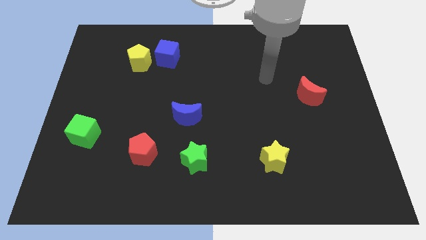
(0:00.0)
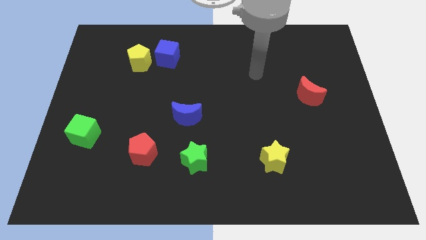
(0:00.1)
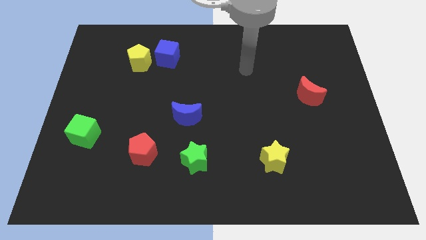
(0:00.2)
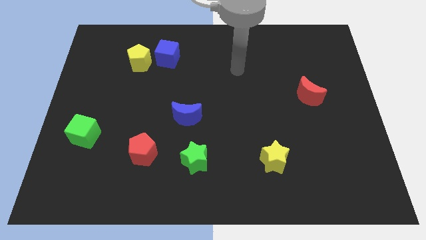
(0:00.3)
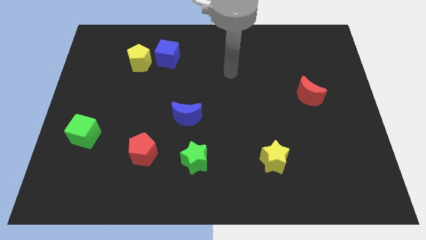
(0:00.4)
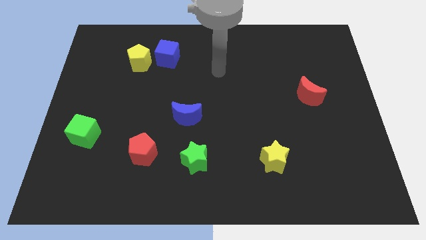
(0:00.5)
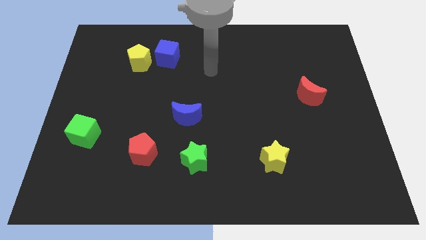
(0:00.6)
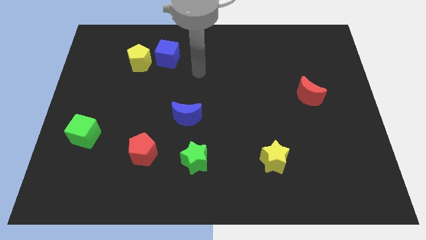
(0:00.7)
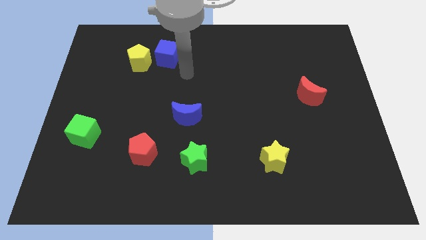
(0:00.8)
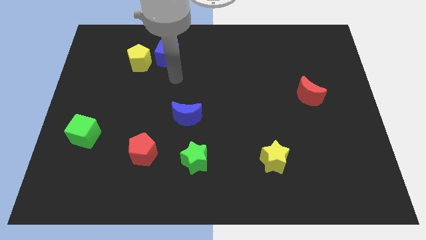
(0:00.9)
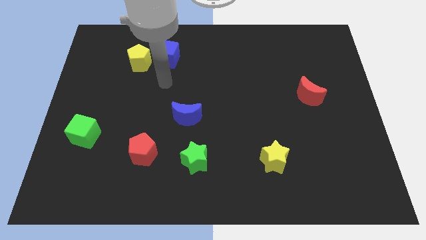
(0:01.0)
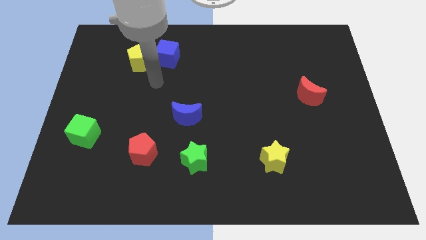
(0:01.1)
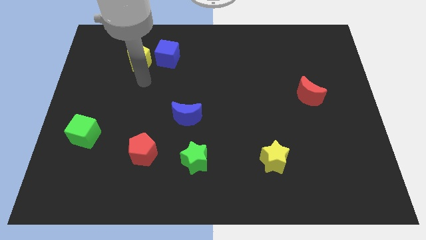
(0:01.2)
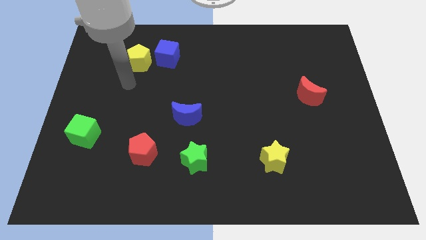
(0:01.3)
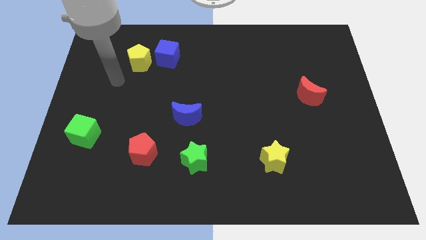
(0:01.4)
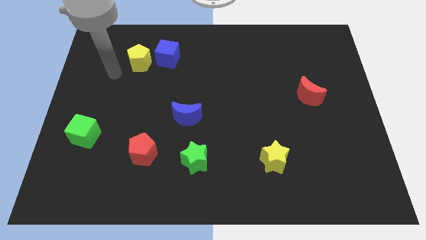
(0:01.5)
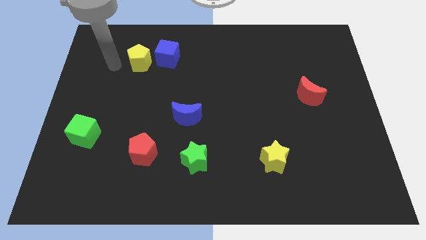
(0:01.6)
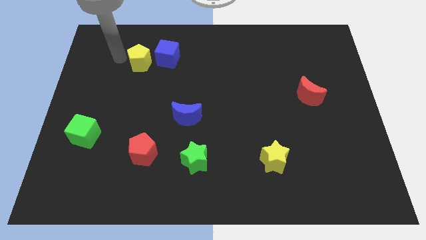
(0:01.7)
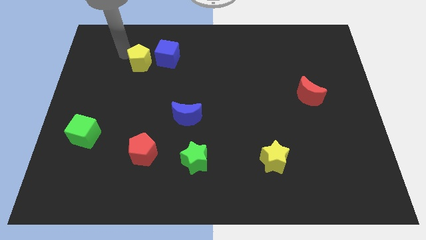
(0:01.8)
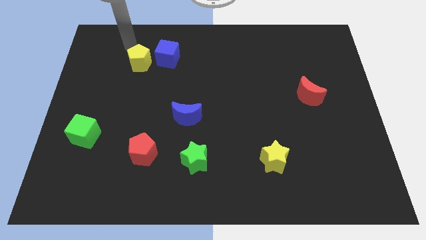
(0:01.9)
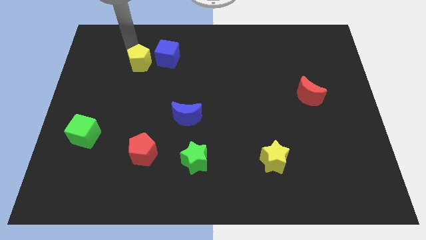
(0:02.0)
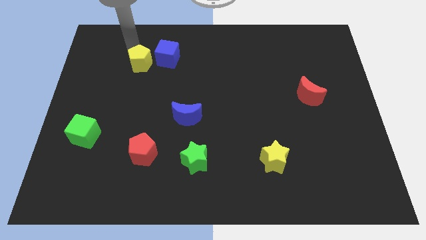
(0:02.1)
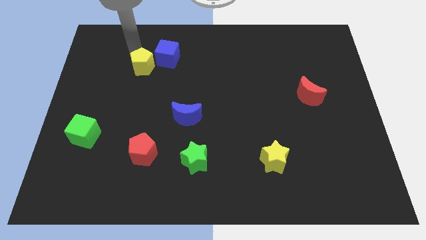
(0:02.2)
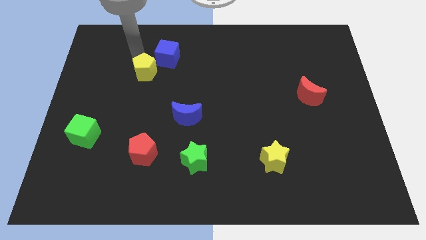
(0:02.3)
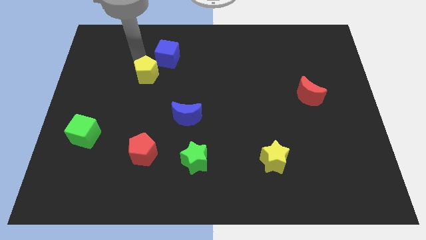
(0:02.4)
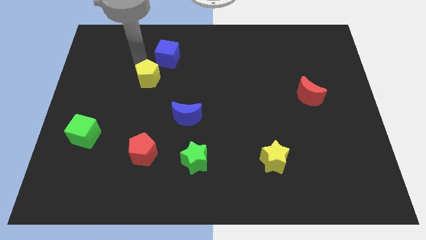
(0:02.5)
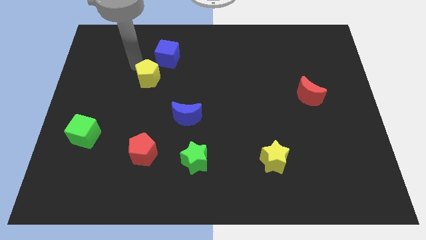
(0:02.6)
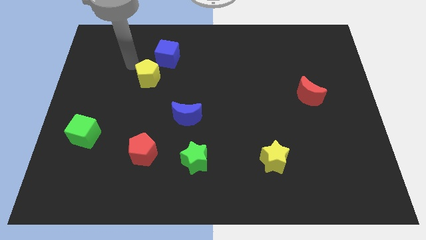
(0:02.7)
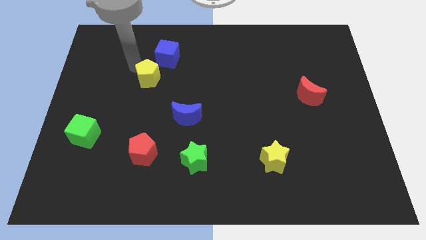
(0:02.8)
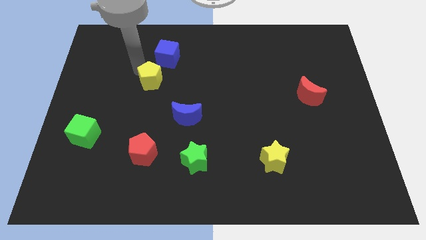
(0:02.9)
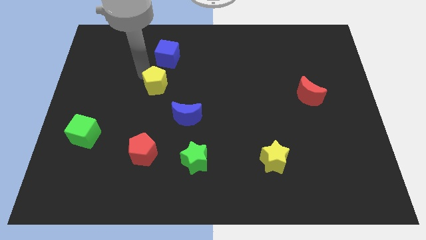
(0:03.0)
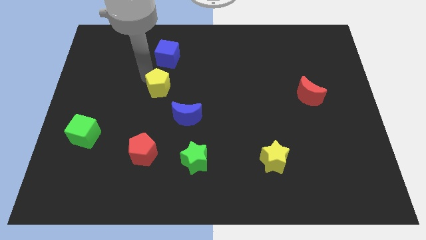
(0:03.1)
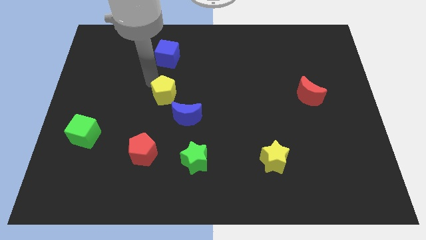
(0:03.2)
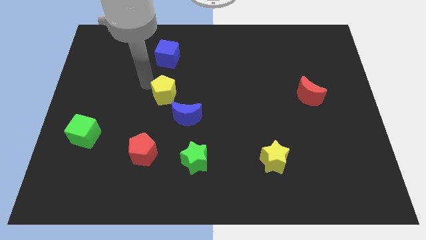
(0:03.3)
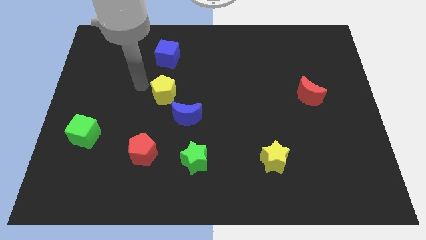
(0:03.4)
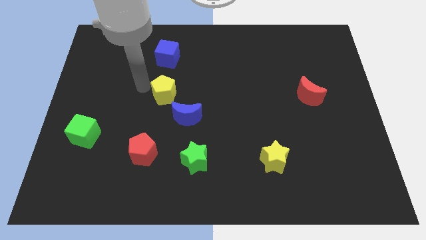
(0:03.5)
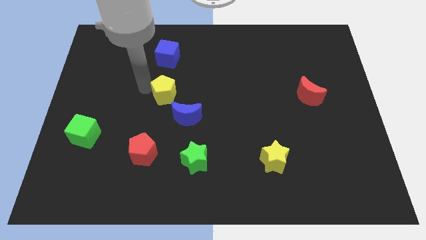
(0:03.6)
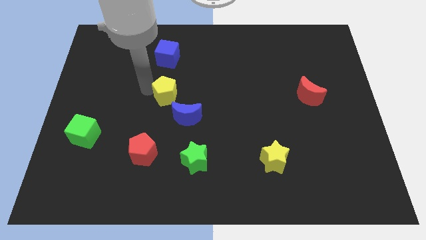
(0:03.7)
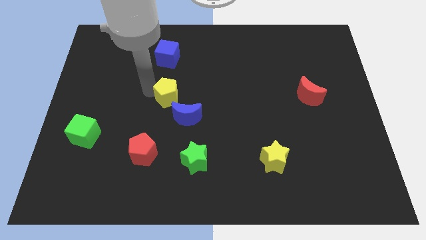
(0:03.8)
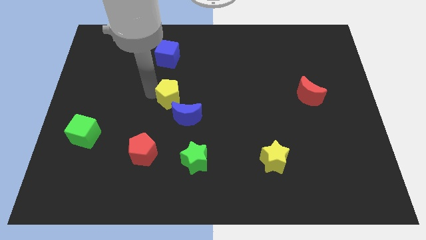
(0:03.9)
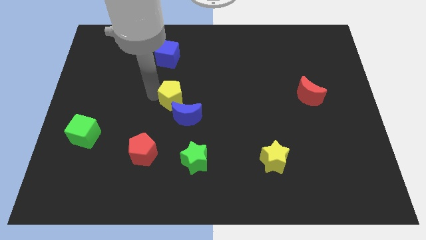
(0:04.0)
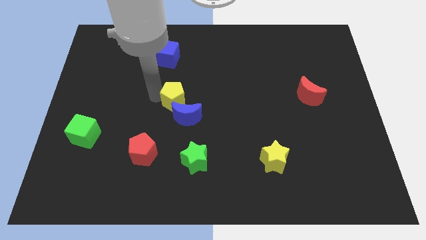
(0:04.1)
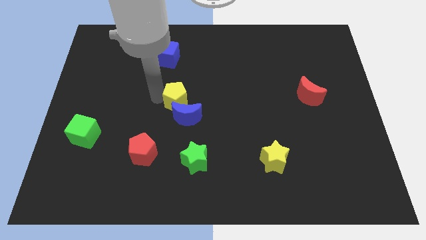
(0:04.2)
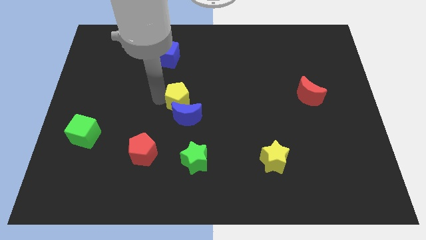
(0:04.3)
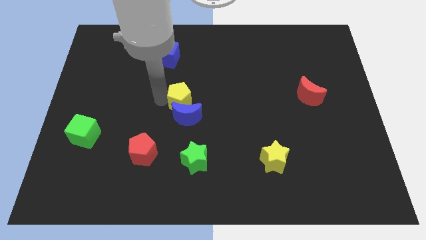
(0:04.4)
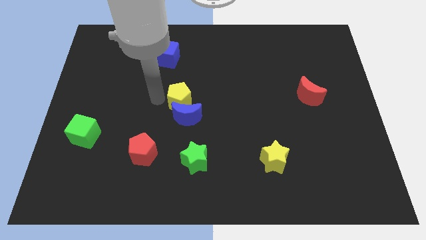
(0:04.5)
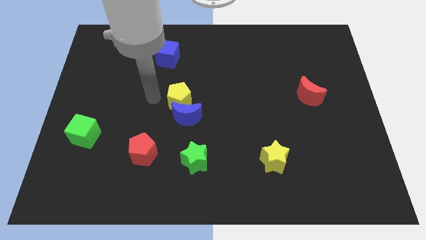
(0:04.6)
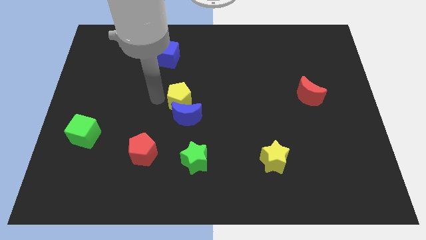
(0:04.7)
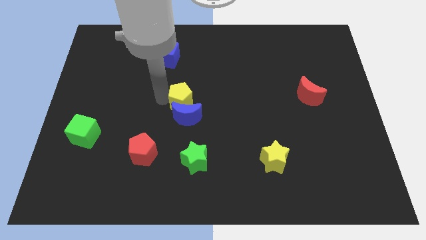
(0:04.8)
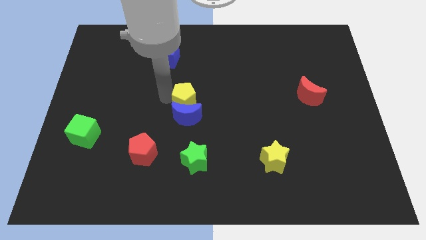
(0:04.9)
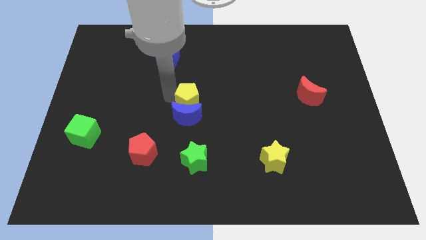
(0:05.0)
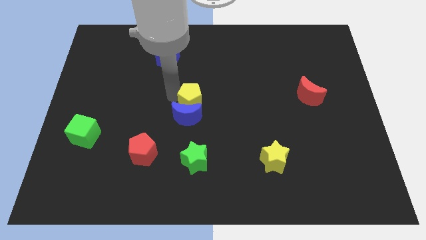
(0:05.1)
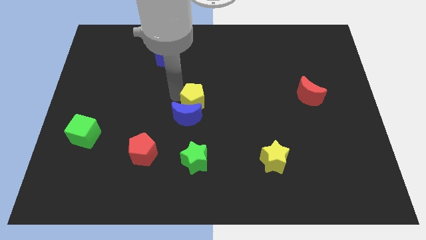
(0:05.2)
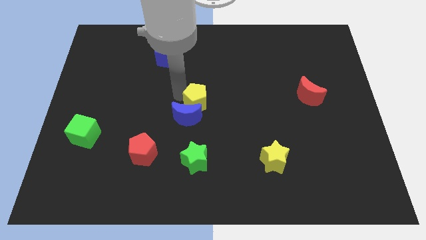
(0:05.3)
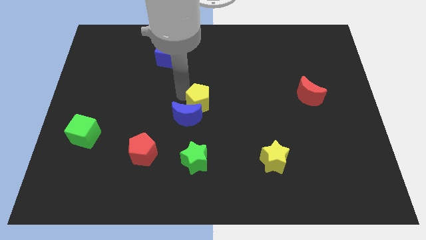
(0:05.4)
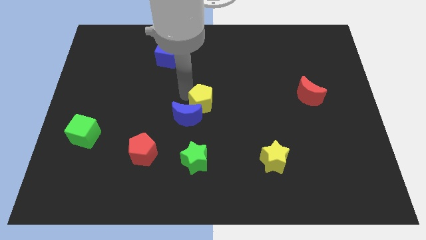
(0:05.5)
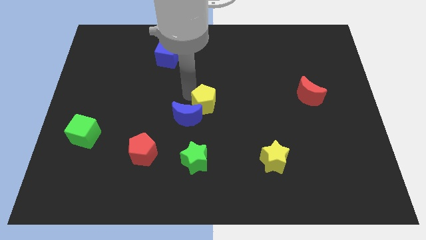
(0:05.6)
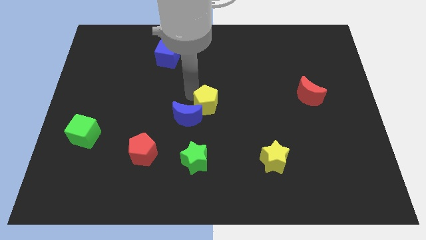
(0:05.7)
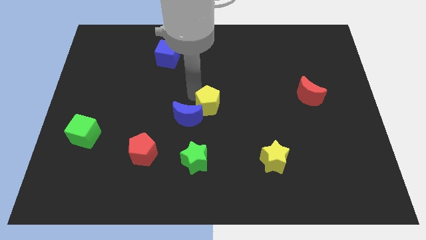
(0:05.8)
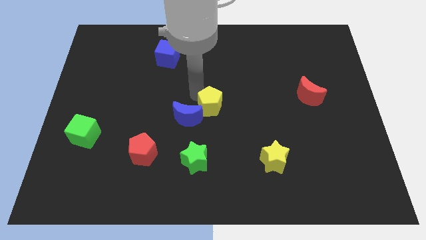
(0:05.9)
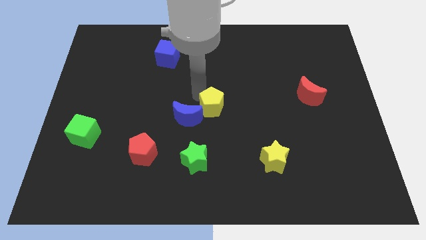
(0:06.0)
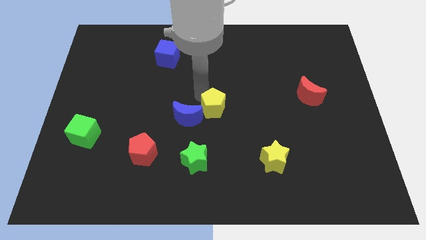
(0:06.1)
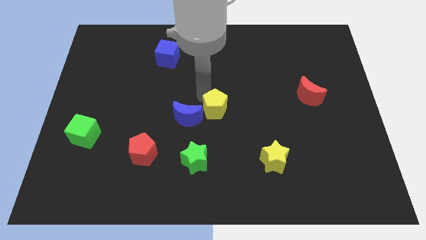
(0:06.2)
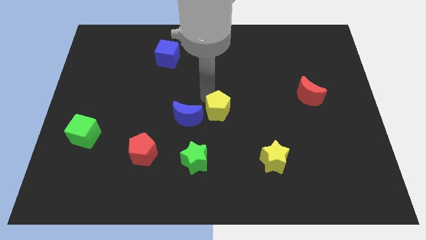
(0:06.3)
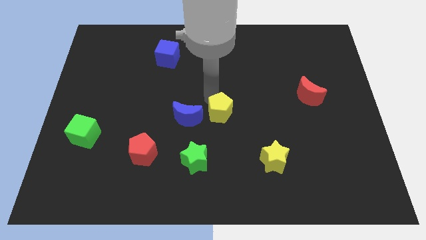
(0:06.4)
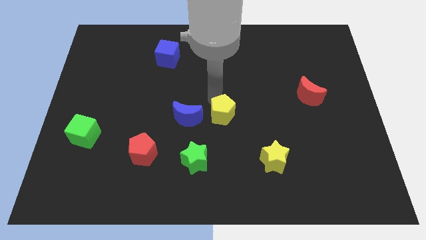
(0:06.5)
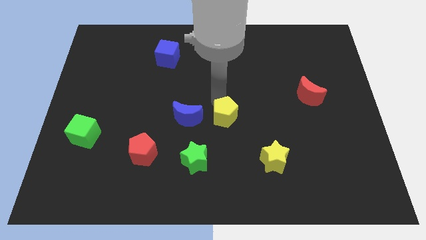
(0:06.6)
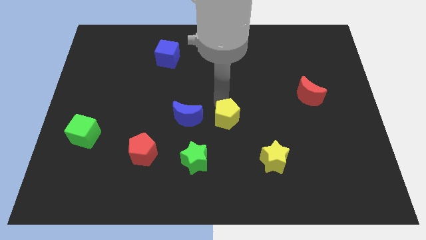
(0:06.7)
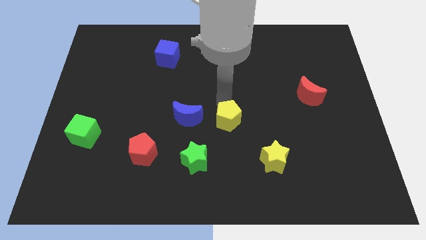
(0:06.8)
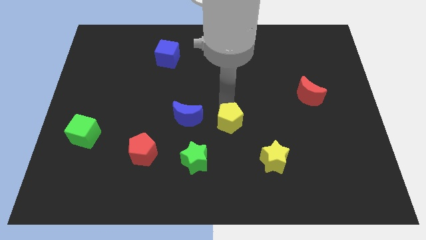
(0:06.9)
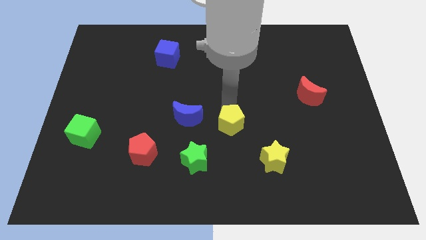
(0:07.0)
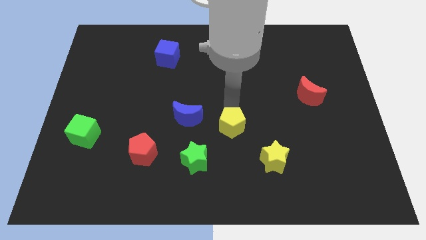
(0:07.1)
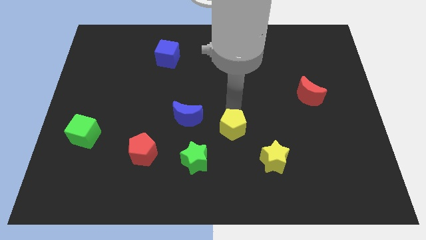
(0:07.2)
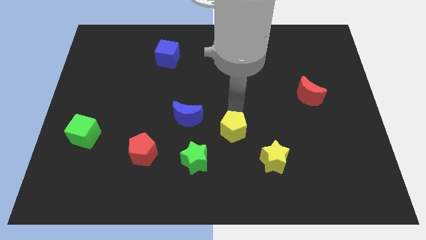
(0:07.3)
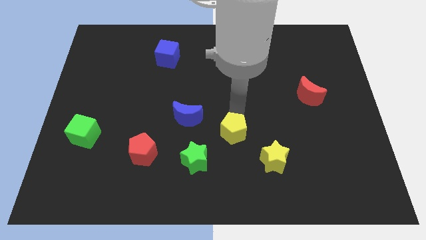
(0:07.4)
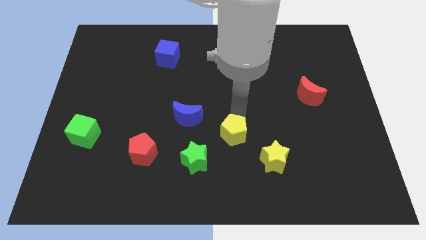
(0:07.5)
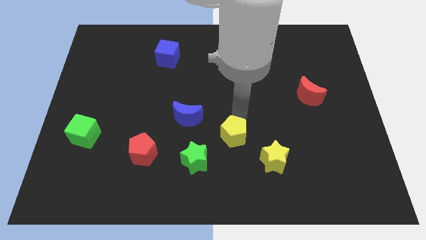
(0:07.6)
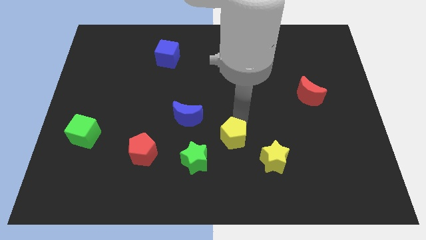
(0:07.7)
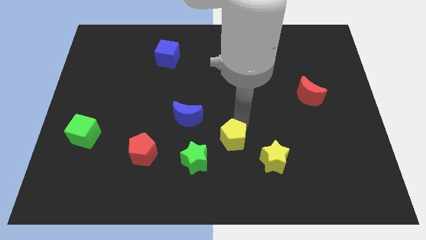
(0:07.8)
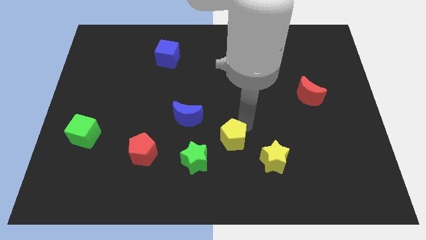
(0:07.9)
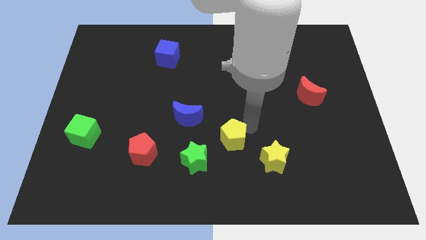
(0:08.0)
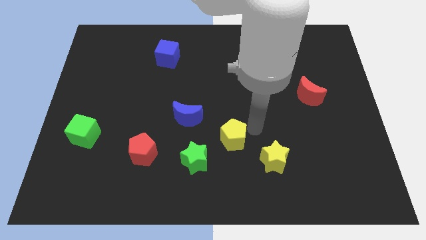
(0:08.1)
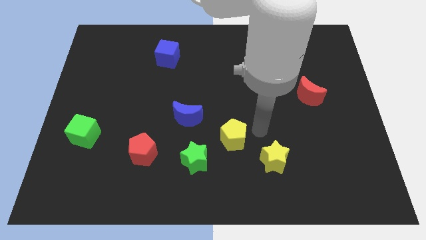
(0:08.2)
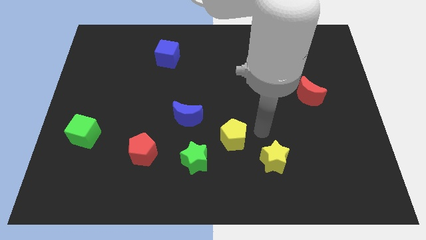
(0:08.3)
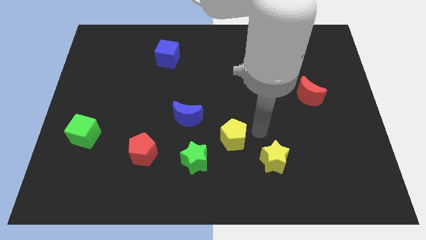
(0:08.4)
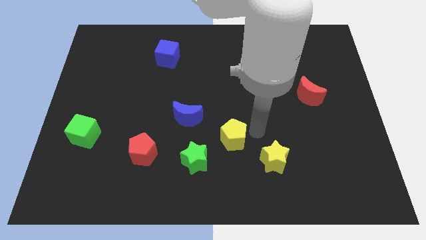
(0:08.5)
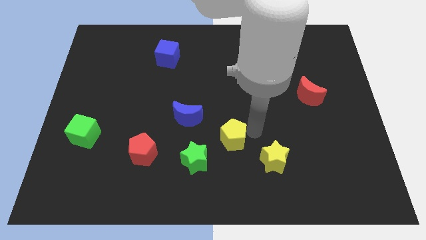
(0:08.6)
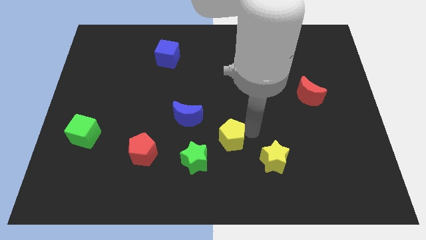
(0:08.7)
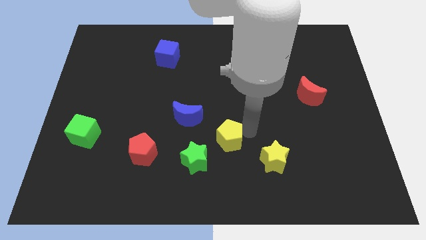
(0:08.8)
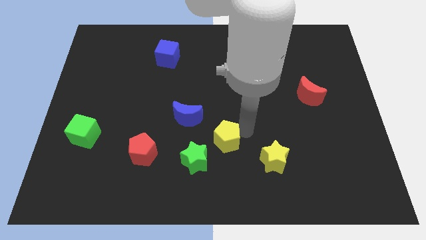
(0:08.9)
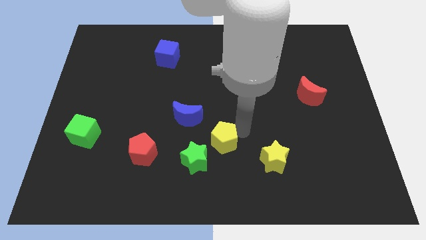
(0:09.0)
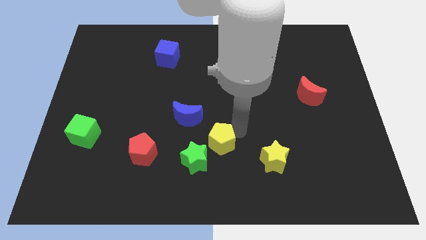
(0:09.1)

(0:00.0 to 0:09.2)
push the yellow pentagon to the left of the yellow star
